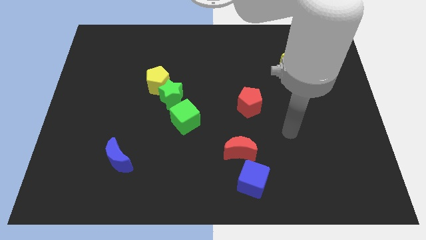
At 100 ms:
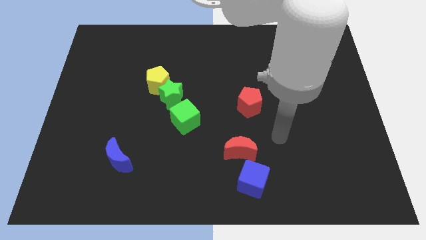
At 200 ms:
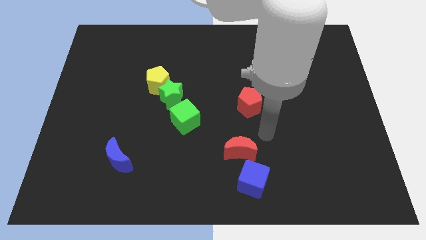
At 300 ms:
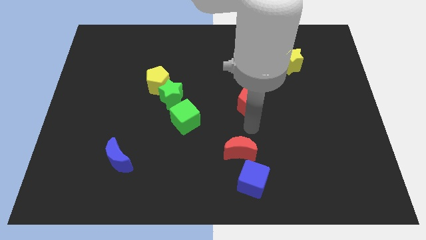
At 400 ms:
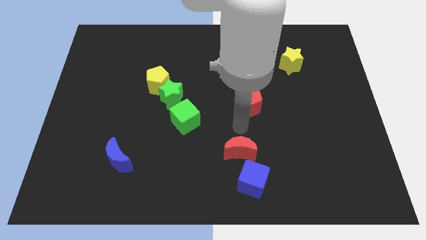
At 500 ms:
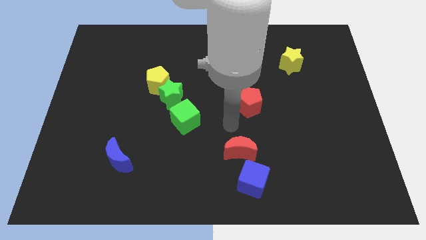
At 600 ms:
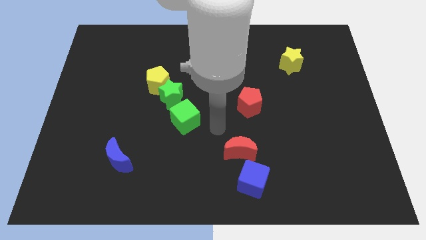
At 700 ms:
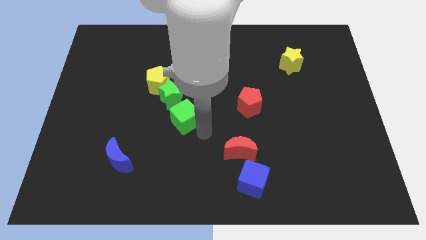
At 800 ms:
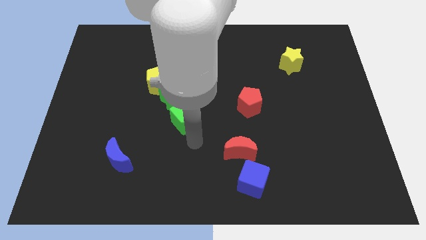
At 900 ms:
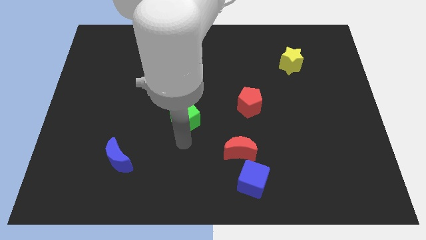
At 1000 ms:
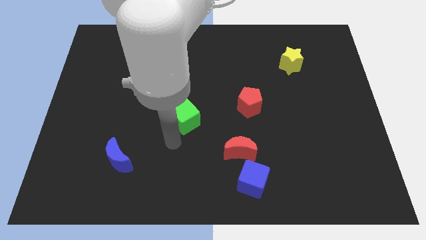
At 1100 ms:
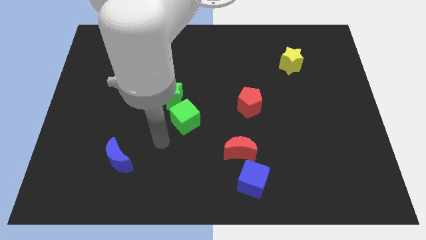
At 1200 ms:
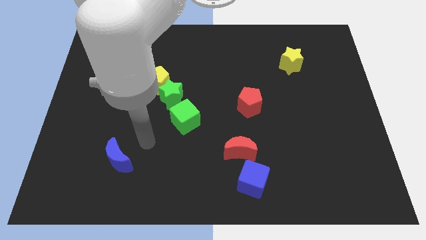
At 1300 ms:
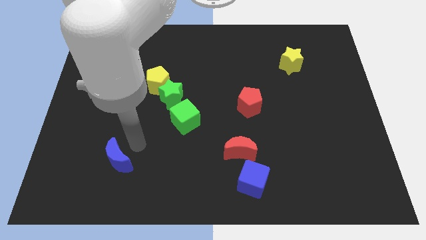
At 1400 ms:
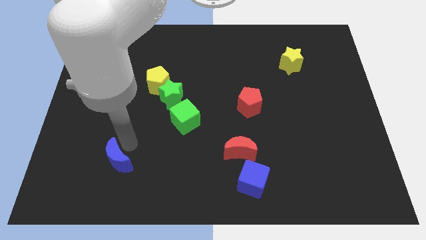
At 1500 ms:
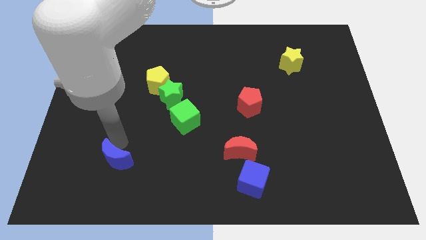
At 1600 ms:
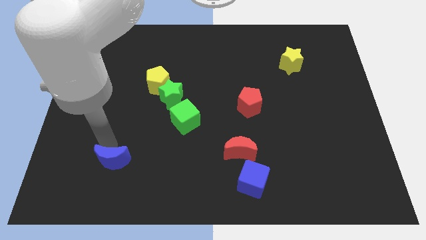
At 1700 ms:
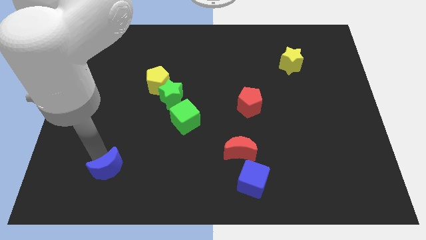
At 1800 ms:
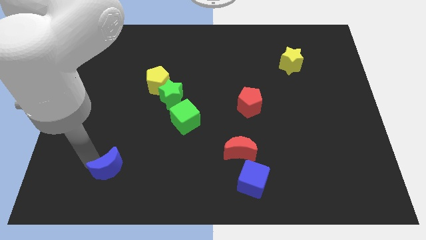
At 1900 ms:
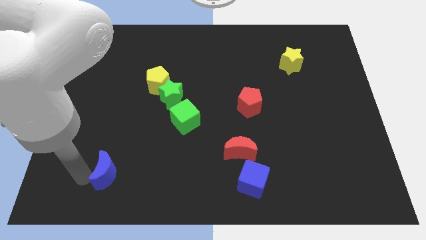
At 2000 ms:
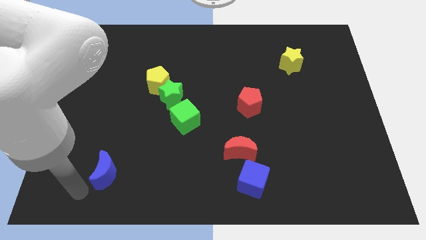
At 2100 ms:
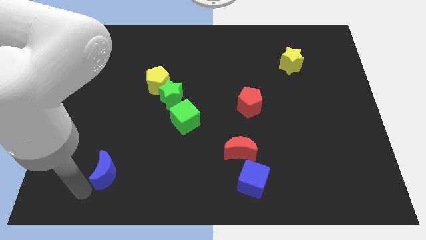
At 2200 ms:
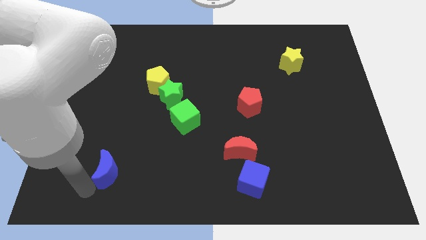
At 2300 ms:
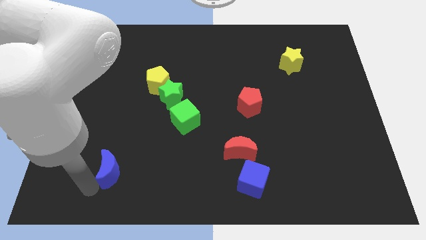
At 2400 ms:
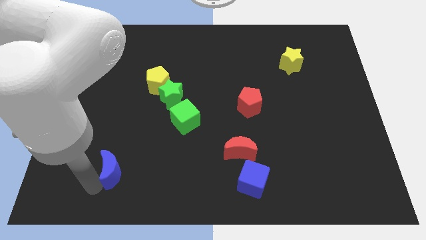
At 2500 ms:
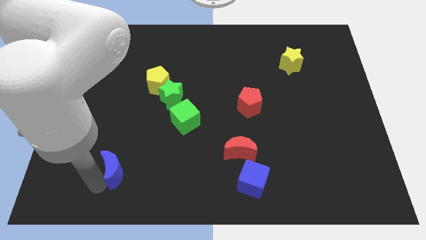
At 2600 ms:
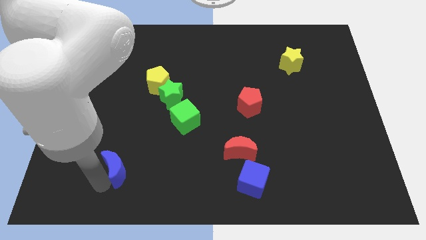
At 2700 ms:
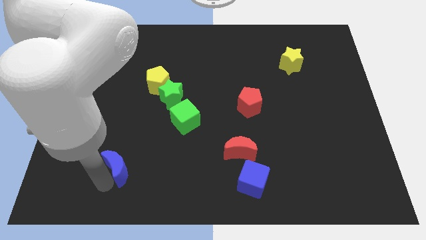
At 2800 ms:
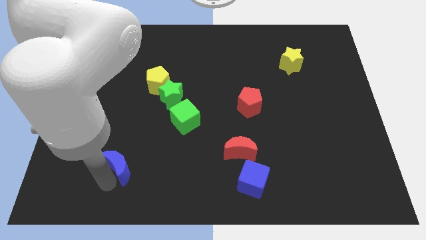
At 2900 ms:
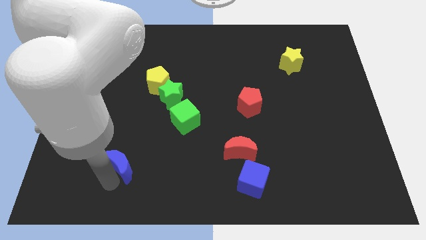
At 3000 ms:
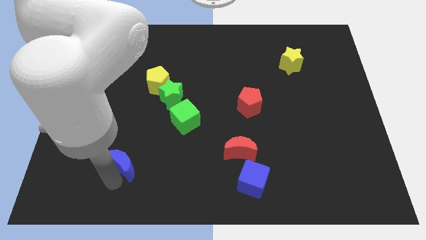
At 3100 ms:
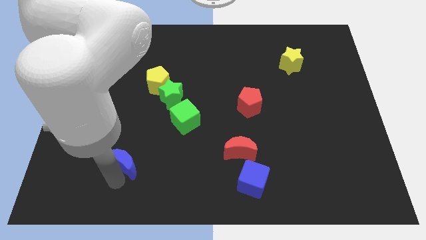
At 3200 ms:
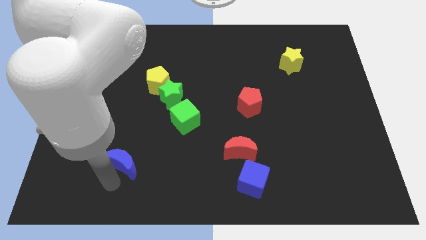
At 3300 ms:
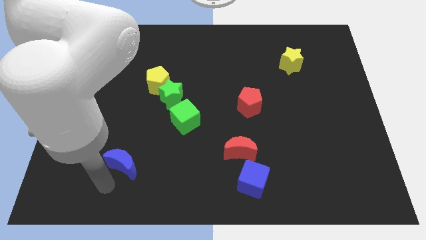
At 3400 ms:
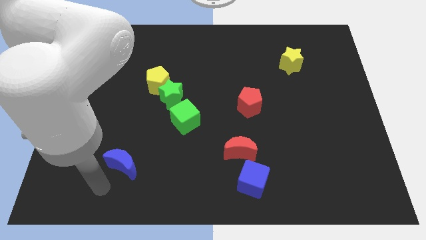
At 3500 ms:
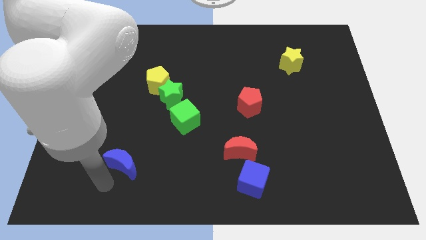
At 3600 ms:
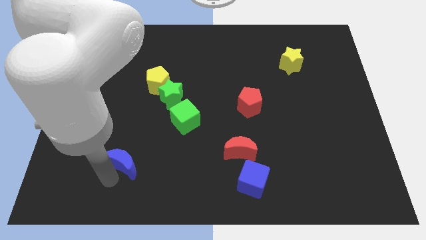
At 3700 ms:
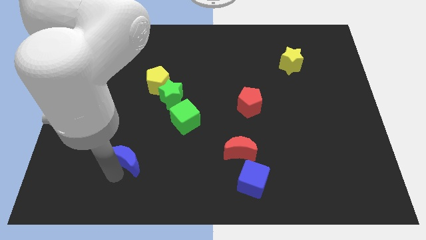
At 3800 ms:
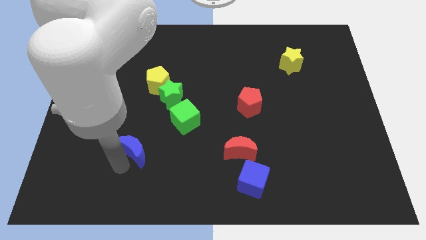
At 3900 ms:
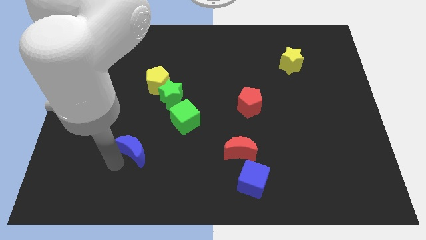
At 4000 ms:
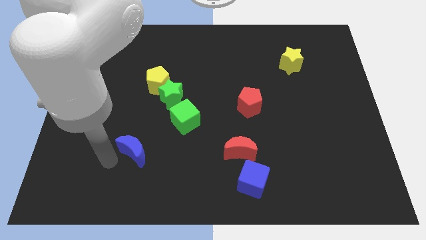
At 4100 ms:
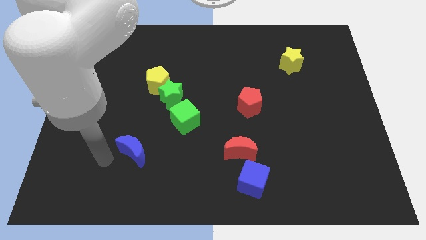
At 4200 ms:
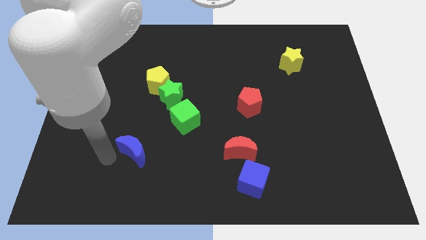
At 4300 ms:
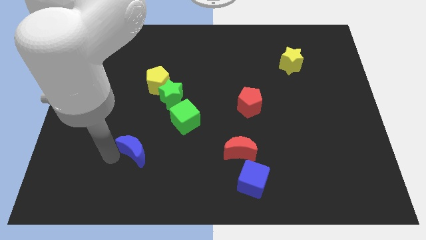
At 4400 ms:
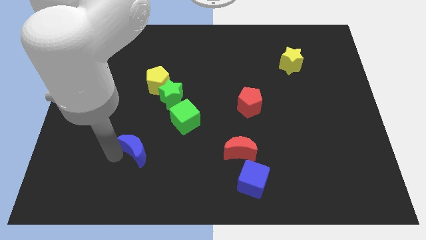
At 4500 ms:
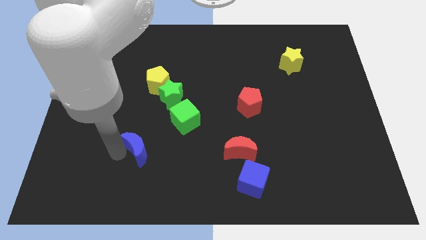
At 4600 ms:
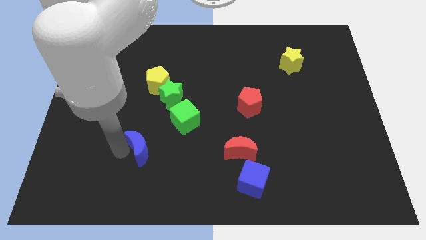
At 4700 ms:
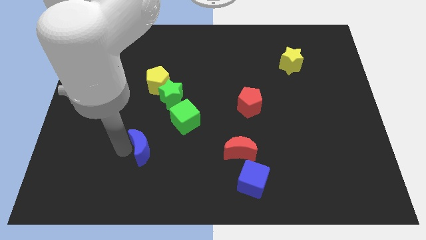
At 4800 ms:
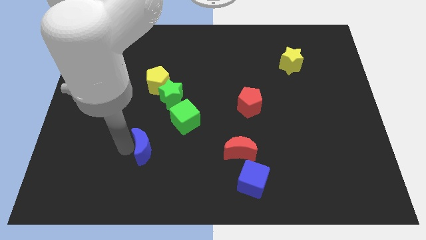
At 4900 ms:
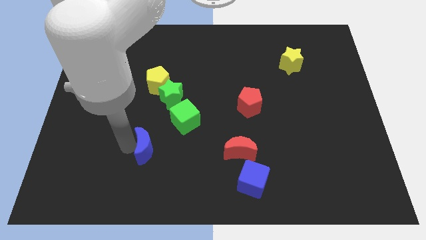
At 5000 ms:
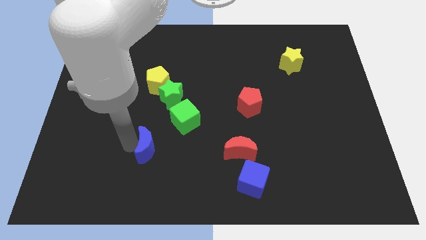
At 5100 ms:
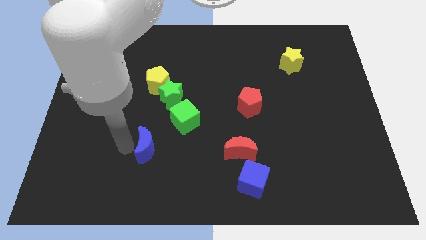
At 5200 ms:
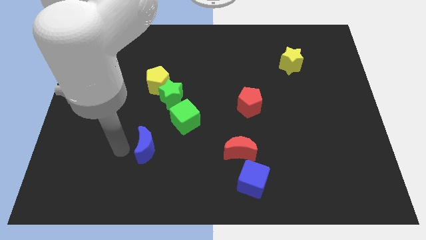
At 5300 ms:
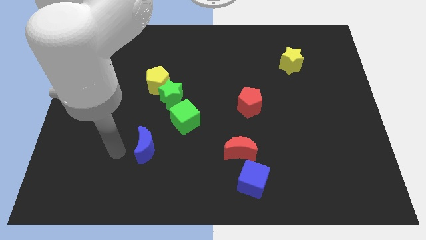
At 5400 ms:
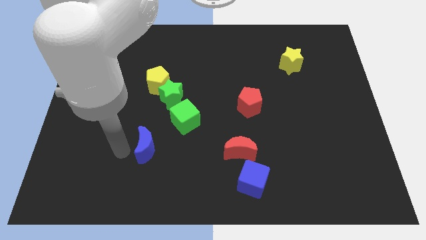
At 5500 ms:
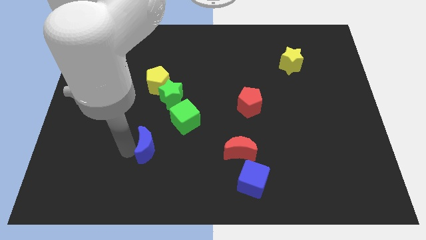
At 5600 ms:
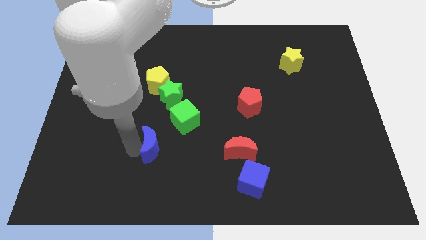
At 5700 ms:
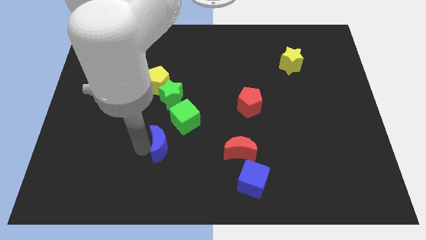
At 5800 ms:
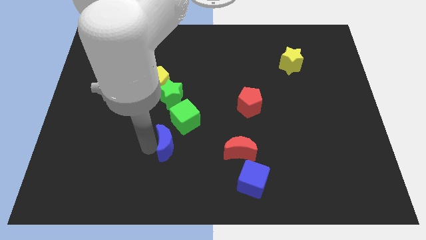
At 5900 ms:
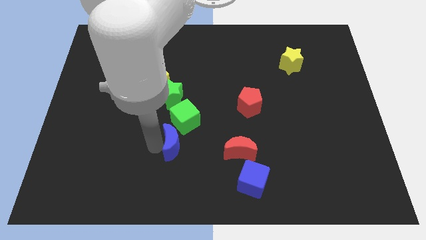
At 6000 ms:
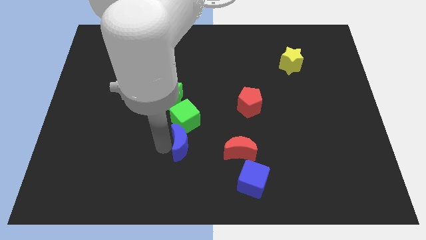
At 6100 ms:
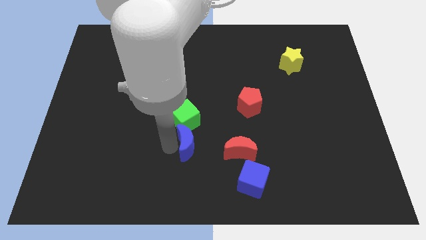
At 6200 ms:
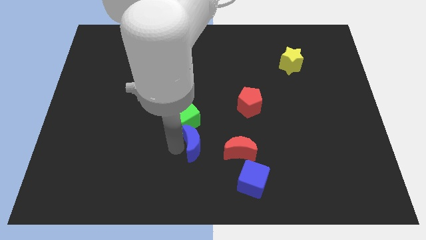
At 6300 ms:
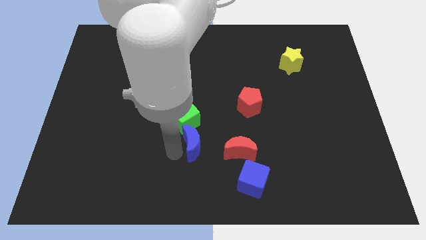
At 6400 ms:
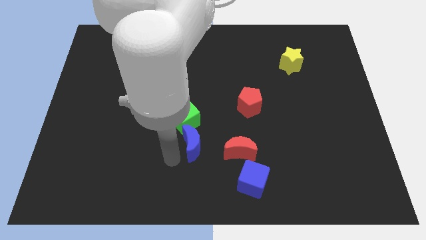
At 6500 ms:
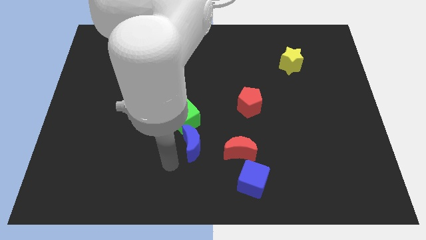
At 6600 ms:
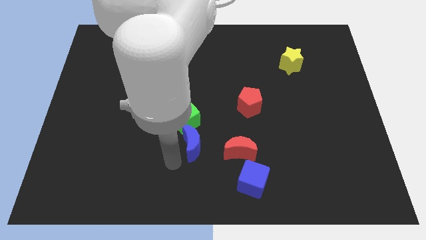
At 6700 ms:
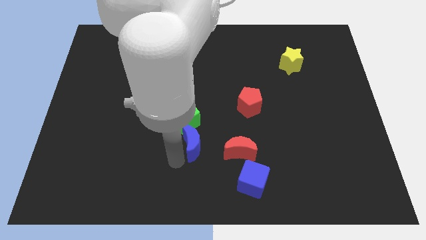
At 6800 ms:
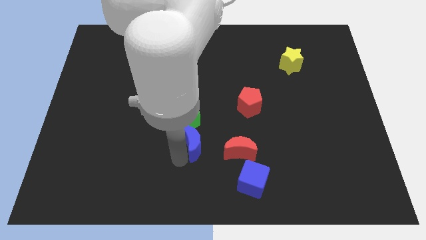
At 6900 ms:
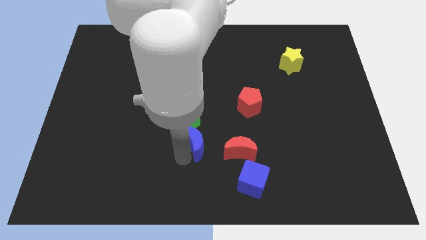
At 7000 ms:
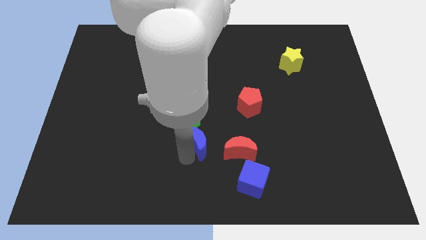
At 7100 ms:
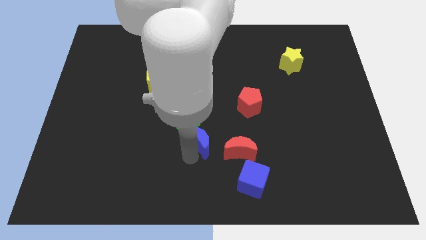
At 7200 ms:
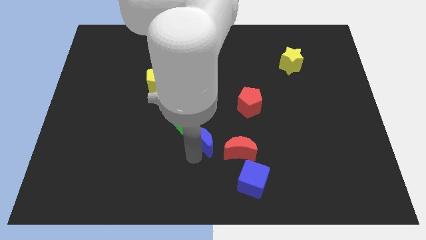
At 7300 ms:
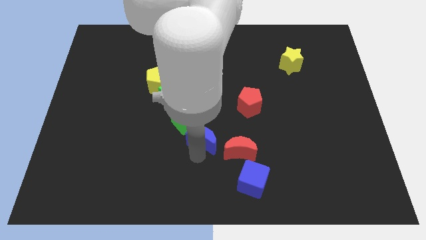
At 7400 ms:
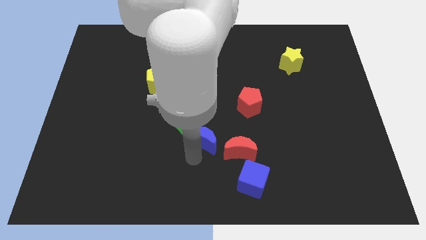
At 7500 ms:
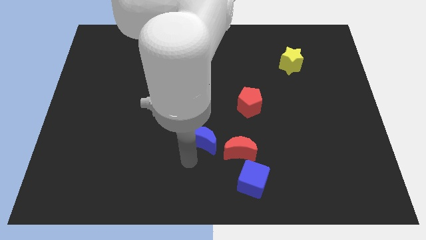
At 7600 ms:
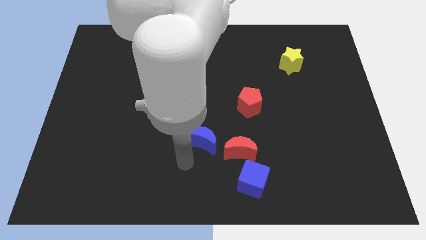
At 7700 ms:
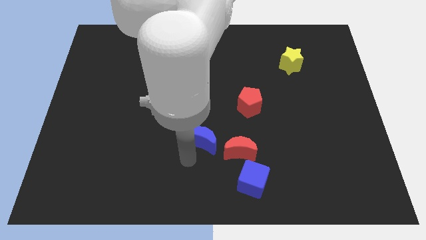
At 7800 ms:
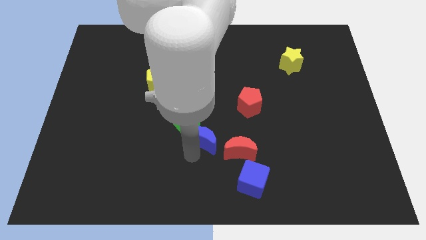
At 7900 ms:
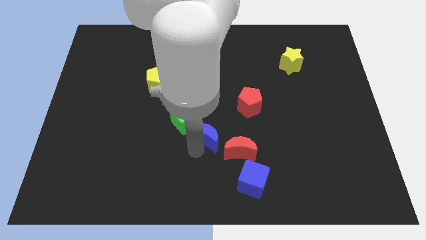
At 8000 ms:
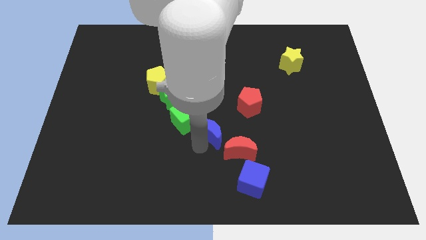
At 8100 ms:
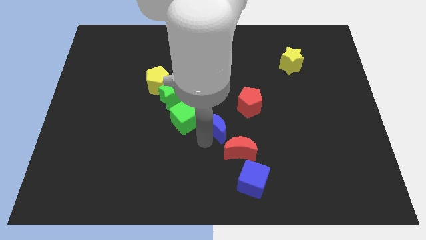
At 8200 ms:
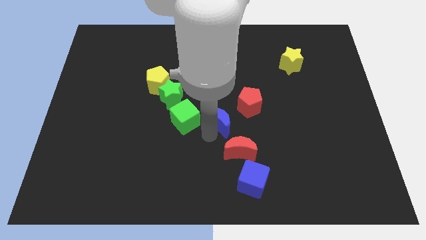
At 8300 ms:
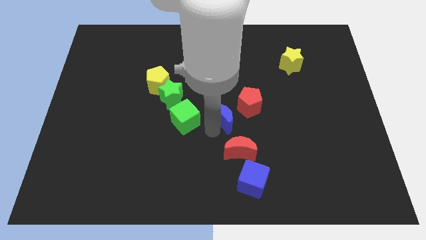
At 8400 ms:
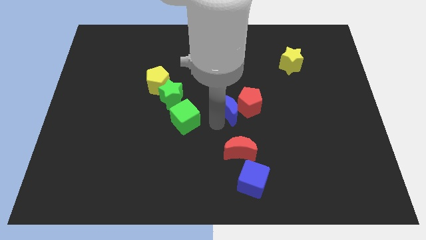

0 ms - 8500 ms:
push the blue moon towards the red pentagon
